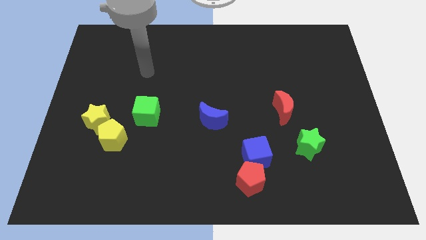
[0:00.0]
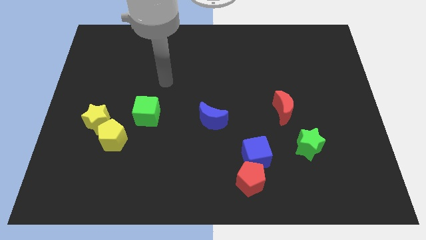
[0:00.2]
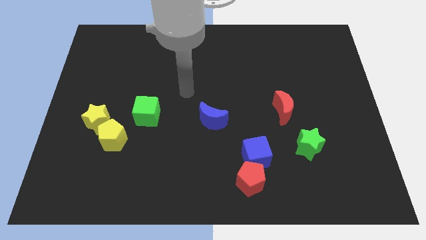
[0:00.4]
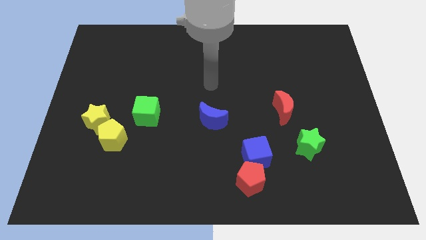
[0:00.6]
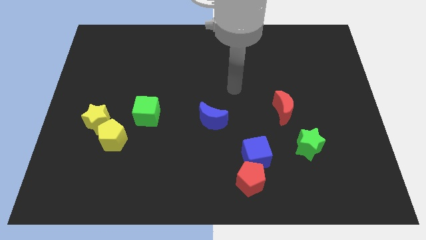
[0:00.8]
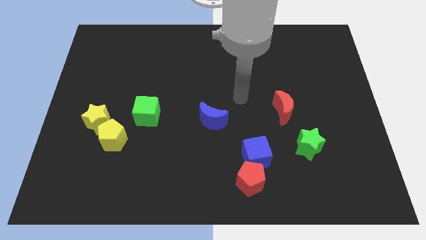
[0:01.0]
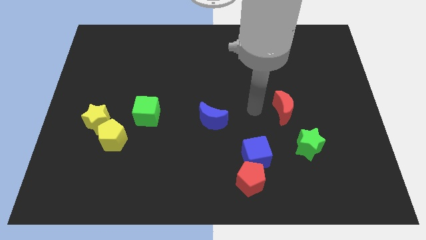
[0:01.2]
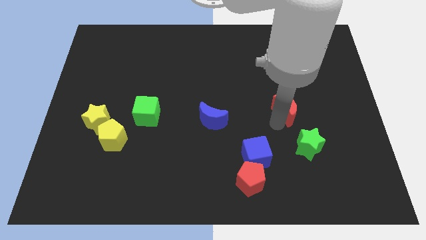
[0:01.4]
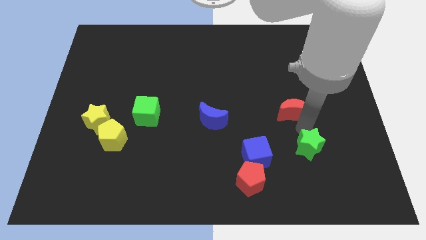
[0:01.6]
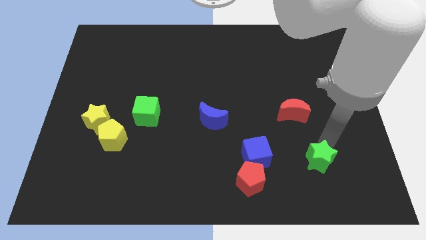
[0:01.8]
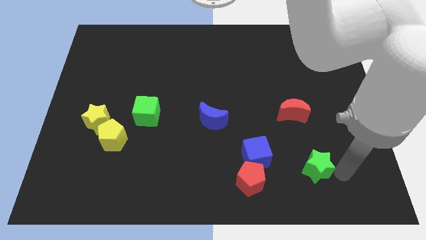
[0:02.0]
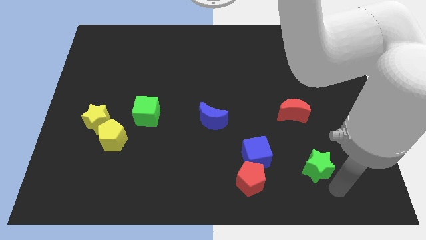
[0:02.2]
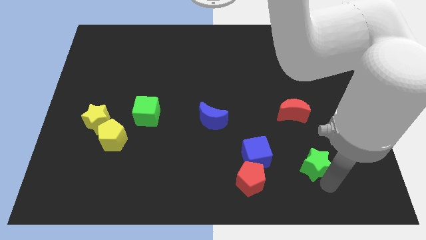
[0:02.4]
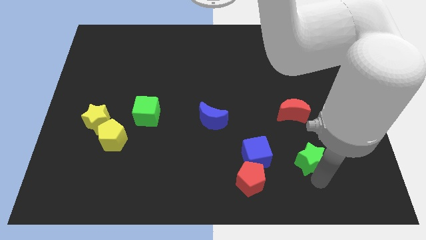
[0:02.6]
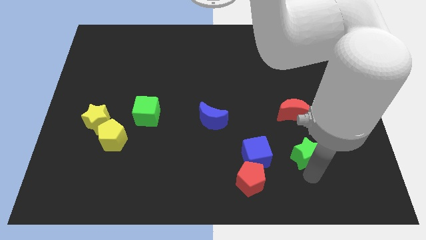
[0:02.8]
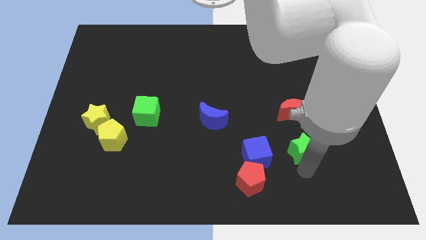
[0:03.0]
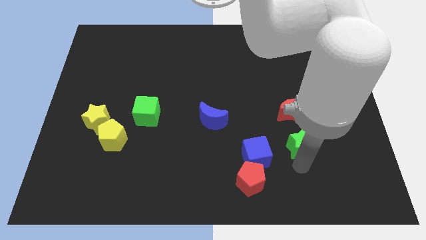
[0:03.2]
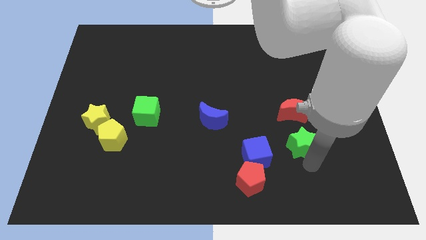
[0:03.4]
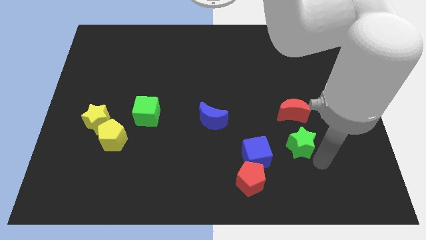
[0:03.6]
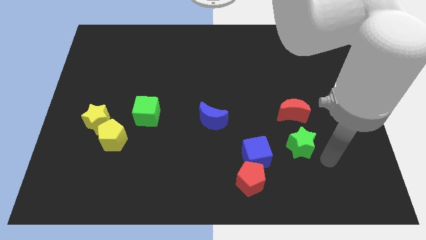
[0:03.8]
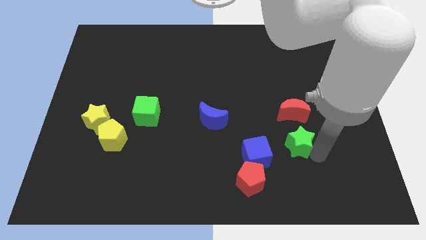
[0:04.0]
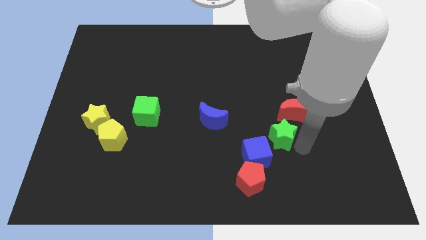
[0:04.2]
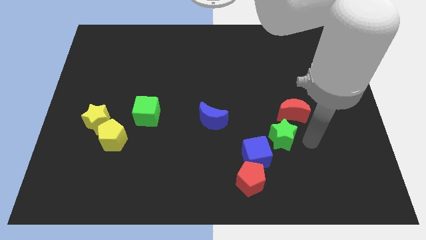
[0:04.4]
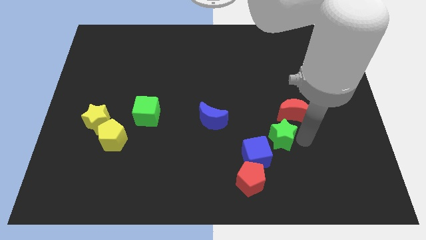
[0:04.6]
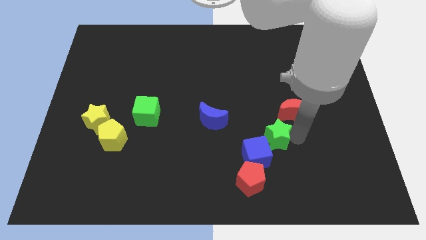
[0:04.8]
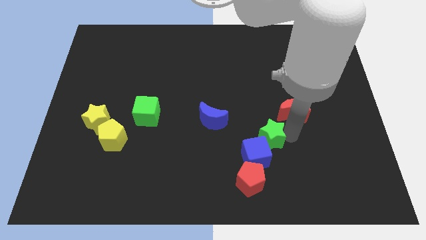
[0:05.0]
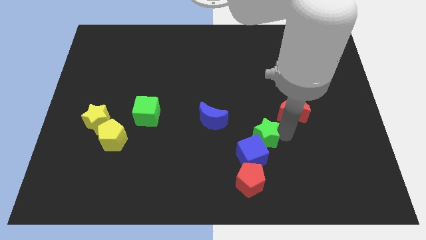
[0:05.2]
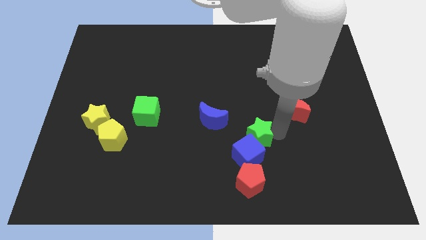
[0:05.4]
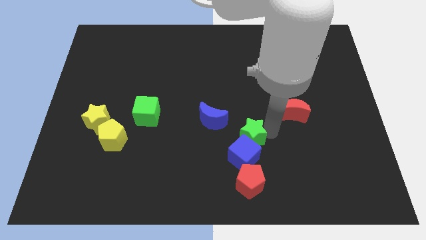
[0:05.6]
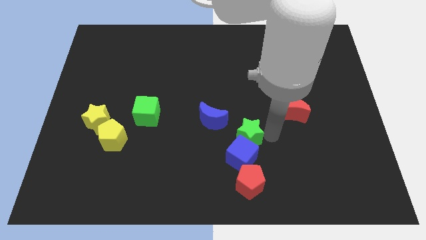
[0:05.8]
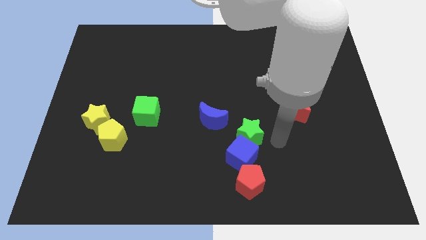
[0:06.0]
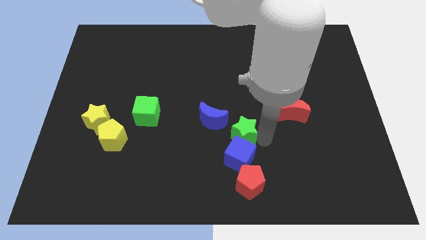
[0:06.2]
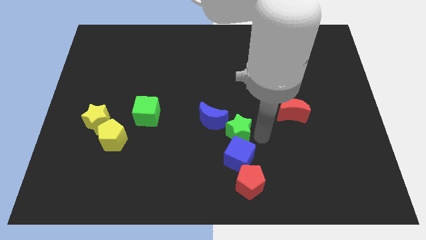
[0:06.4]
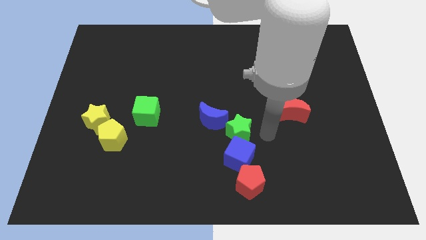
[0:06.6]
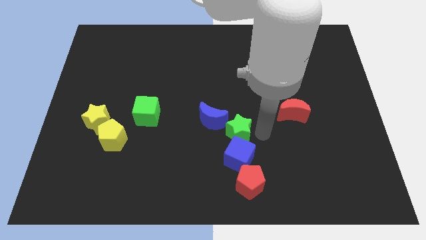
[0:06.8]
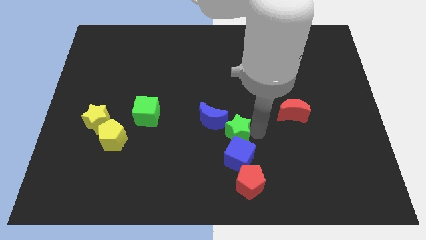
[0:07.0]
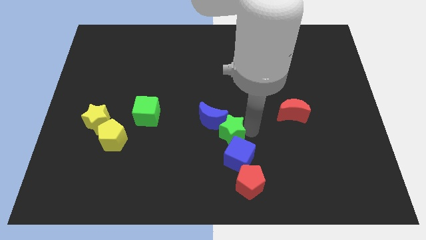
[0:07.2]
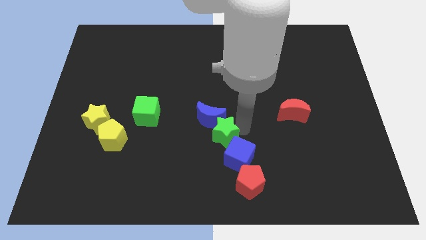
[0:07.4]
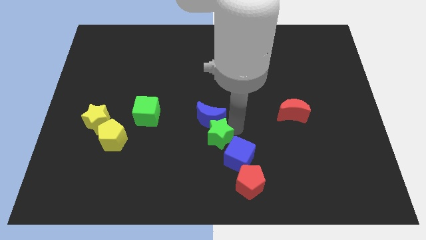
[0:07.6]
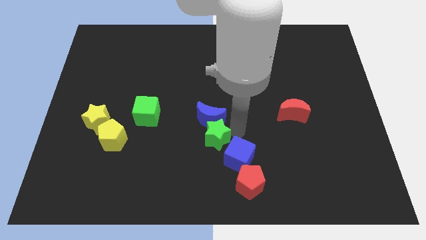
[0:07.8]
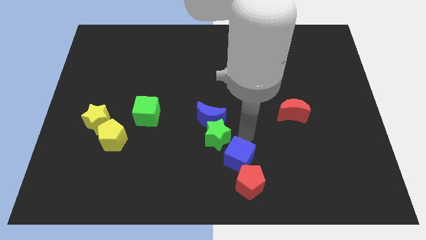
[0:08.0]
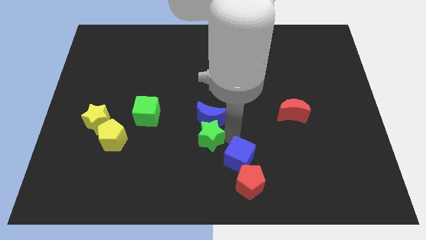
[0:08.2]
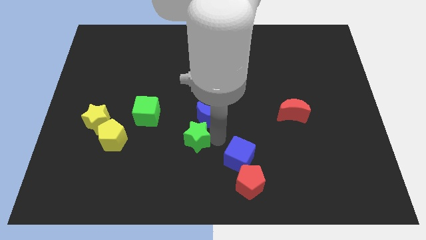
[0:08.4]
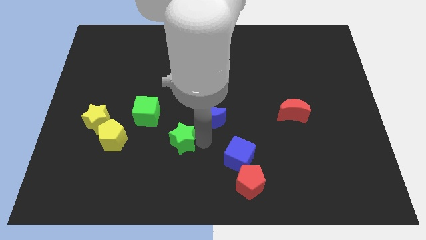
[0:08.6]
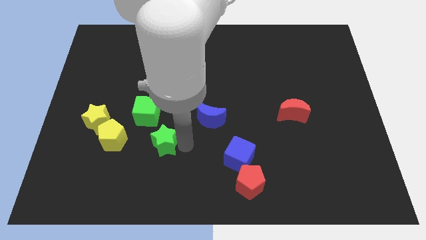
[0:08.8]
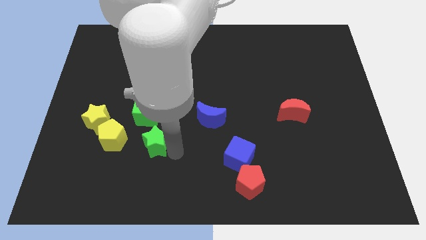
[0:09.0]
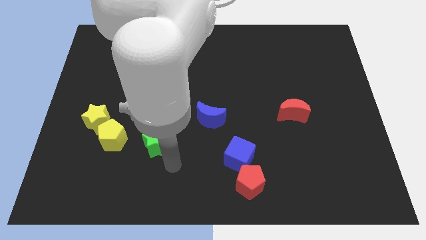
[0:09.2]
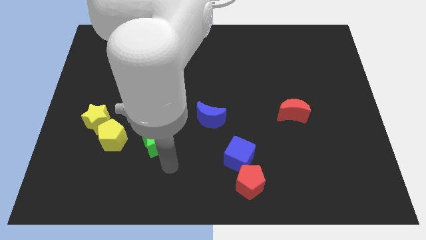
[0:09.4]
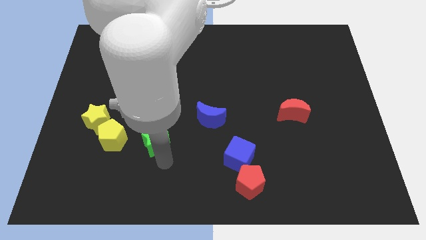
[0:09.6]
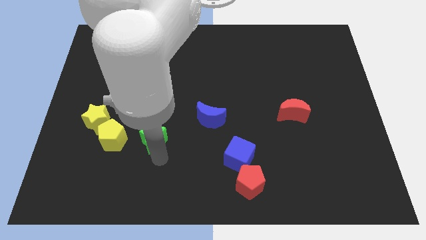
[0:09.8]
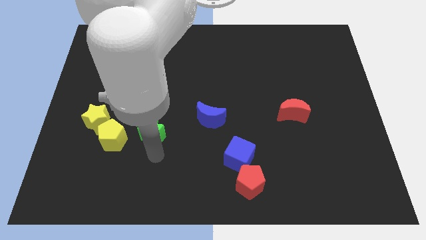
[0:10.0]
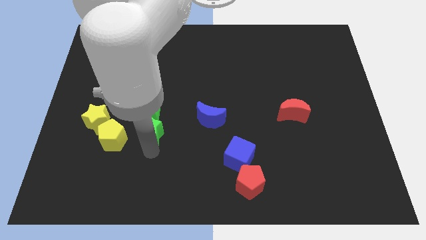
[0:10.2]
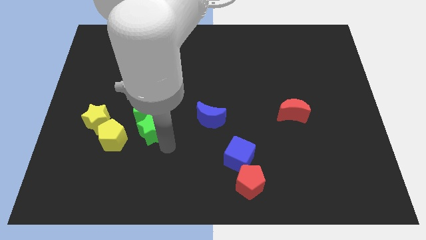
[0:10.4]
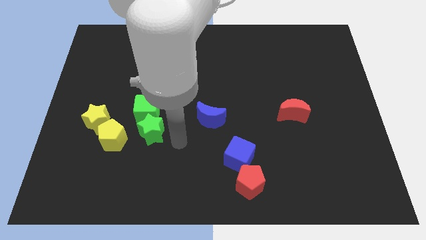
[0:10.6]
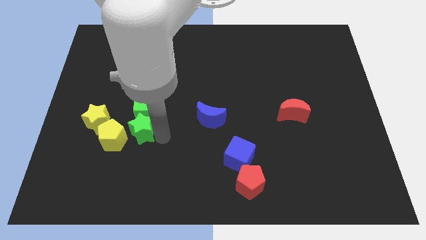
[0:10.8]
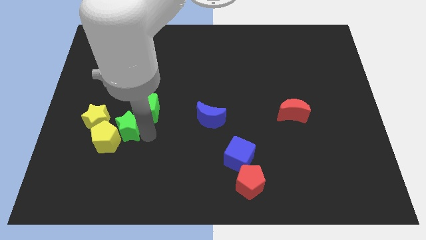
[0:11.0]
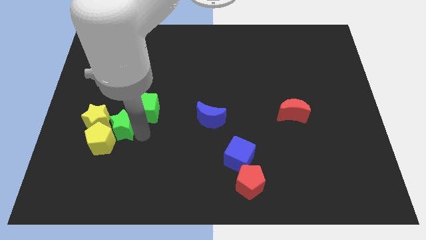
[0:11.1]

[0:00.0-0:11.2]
put the green star next to the yellow star

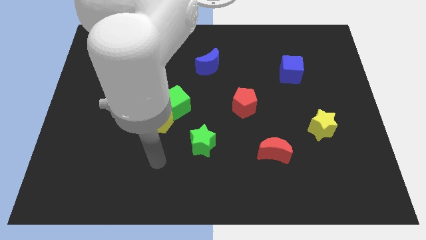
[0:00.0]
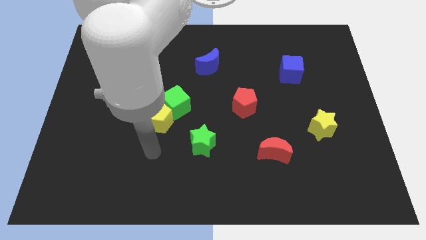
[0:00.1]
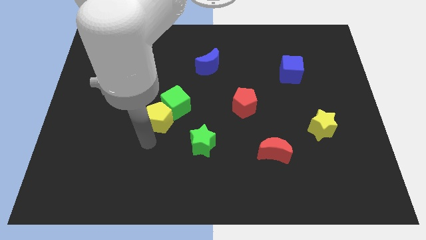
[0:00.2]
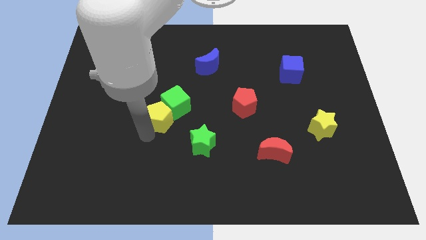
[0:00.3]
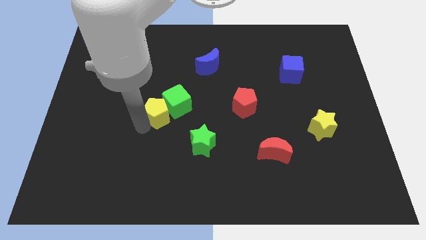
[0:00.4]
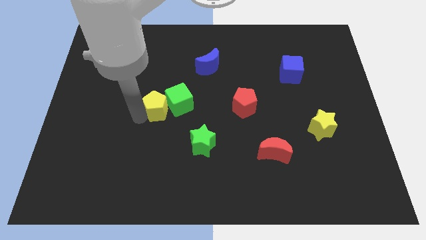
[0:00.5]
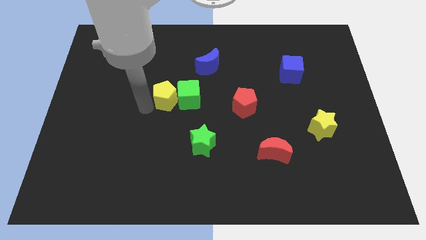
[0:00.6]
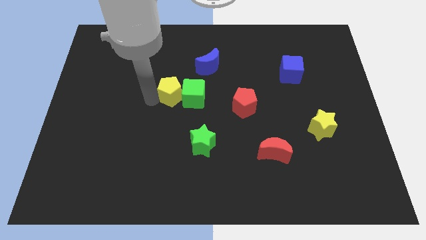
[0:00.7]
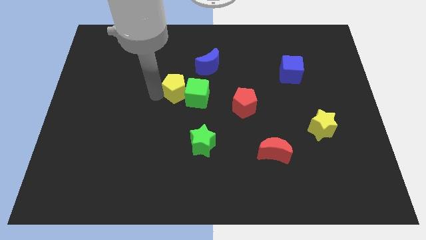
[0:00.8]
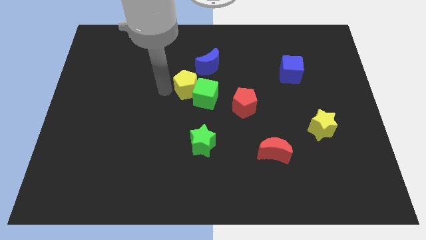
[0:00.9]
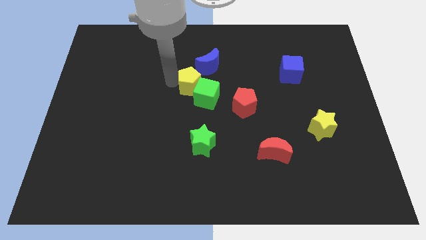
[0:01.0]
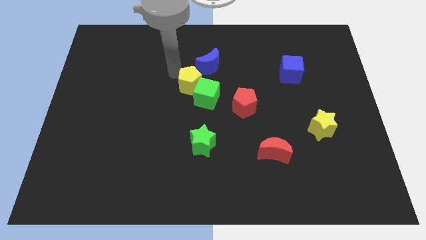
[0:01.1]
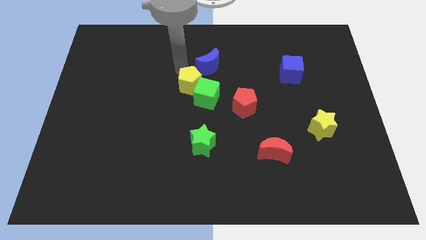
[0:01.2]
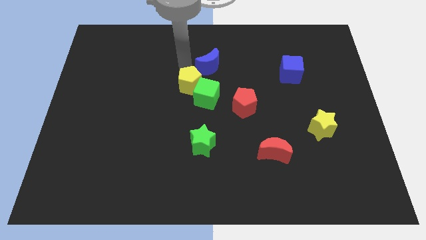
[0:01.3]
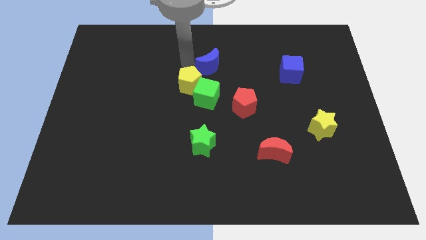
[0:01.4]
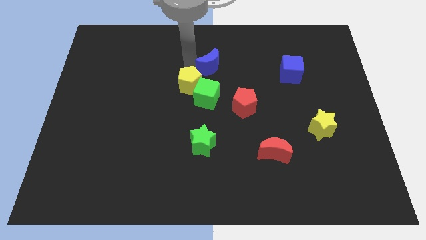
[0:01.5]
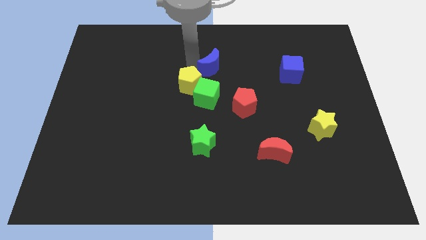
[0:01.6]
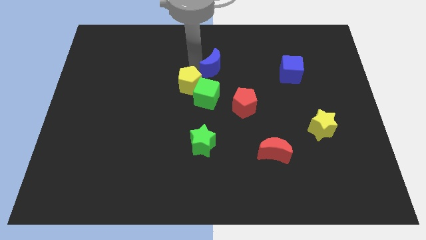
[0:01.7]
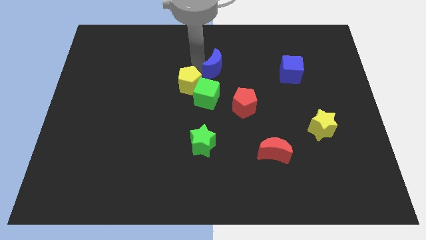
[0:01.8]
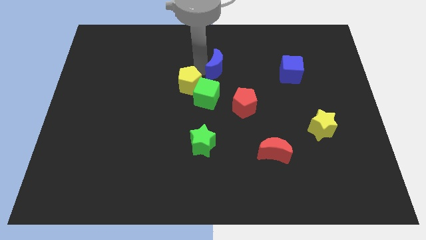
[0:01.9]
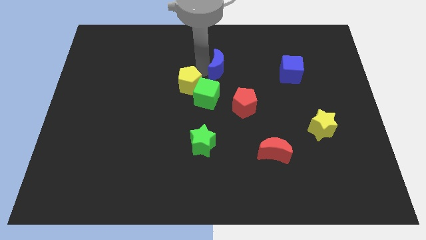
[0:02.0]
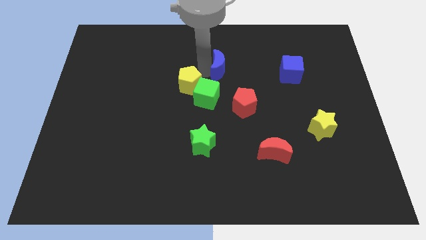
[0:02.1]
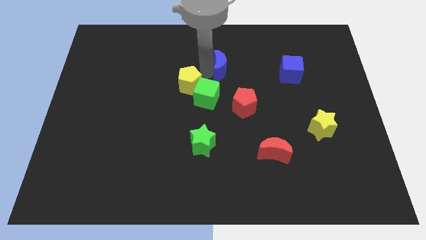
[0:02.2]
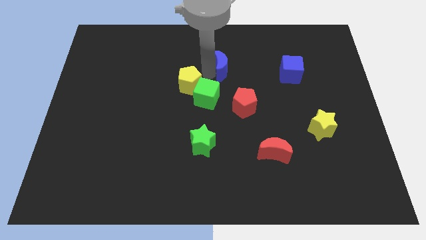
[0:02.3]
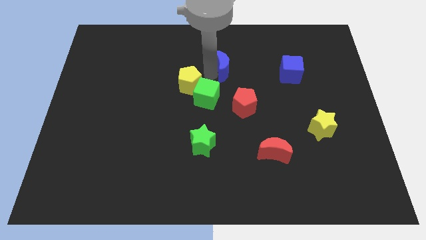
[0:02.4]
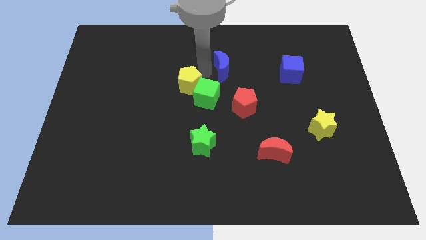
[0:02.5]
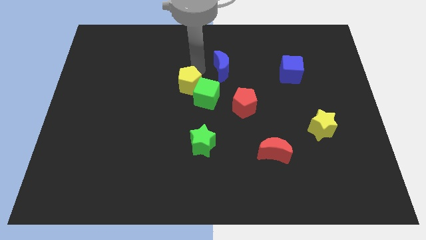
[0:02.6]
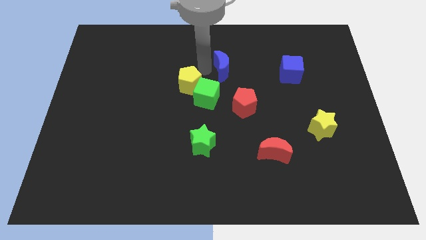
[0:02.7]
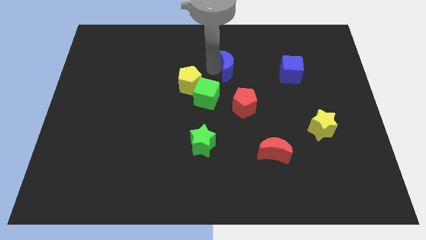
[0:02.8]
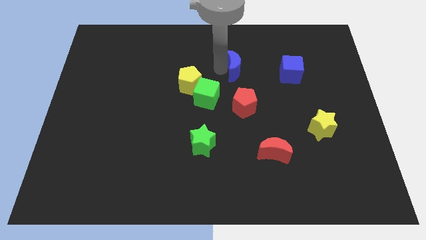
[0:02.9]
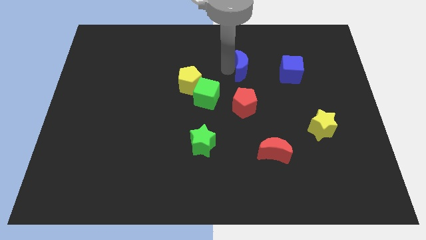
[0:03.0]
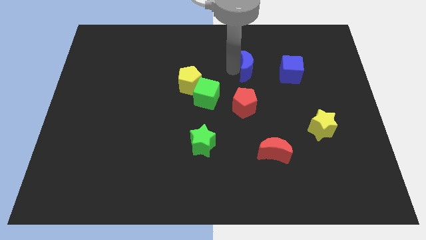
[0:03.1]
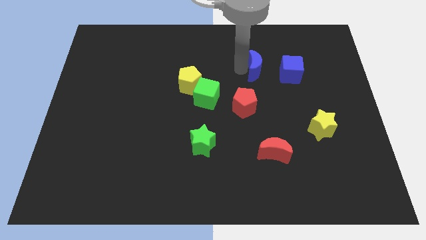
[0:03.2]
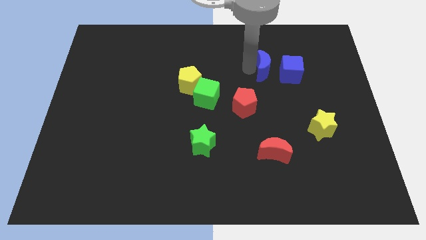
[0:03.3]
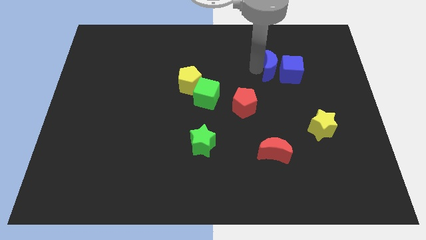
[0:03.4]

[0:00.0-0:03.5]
push the blue moon towards the blue cube
